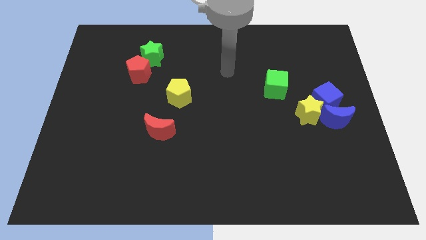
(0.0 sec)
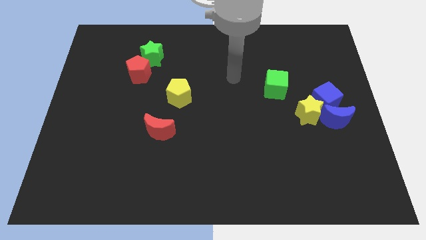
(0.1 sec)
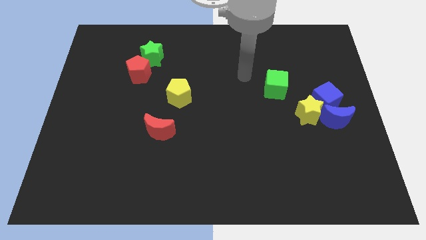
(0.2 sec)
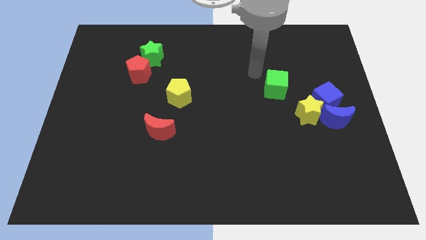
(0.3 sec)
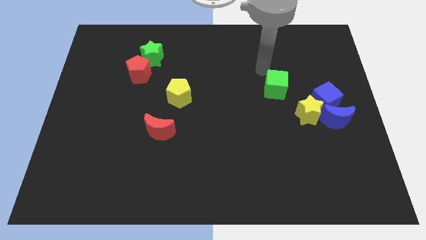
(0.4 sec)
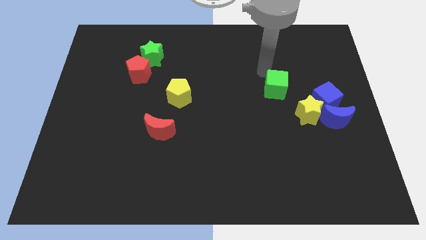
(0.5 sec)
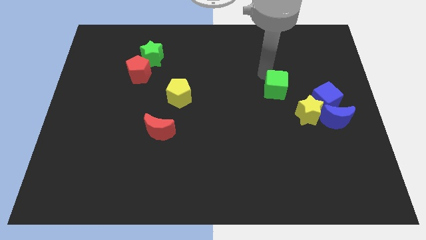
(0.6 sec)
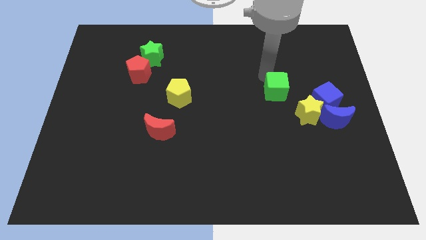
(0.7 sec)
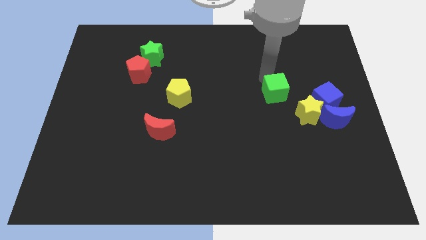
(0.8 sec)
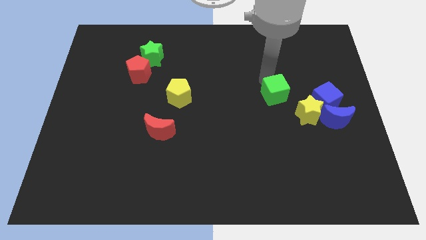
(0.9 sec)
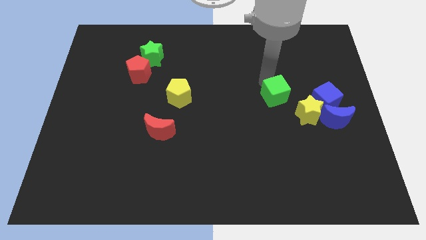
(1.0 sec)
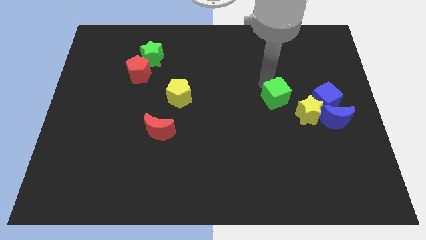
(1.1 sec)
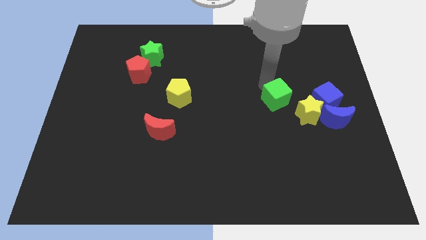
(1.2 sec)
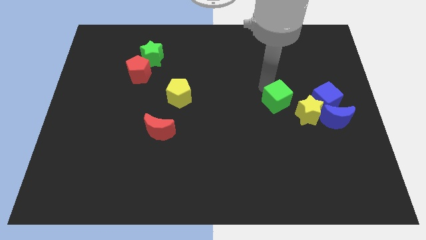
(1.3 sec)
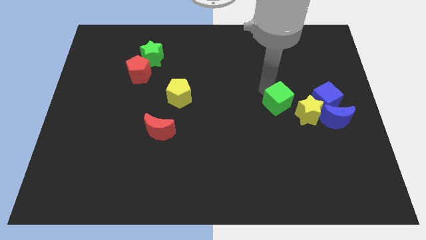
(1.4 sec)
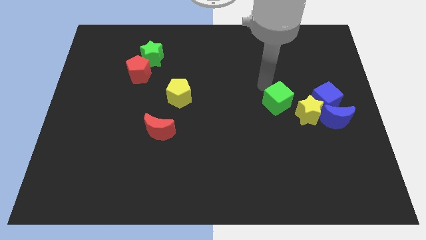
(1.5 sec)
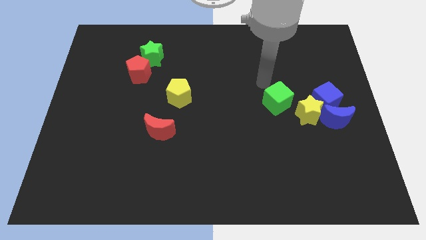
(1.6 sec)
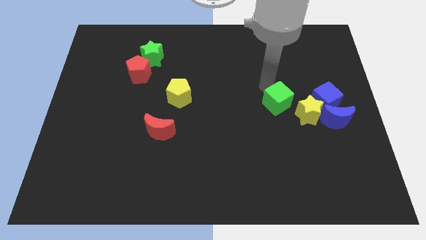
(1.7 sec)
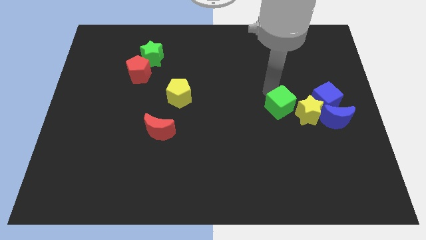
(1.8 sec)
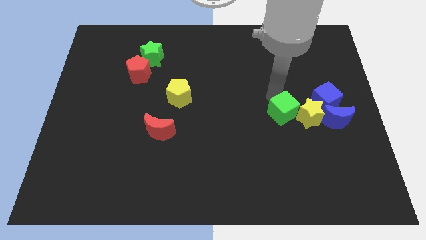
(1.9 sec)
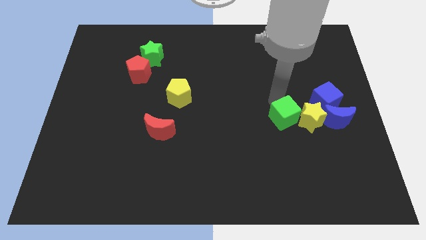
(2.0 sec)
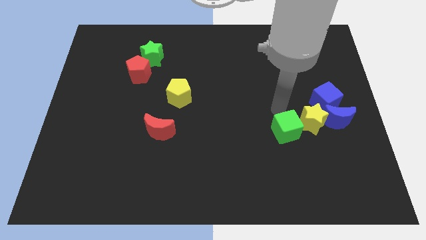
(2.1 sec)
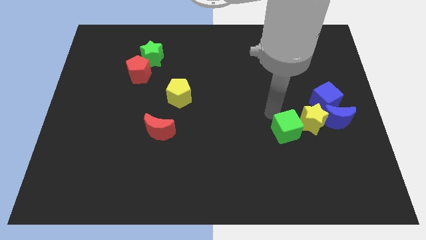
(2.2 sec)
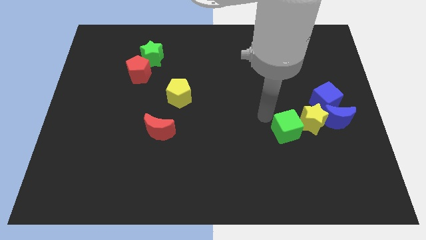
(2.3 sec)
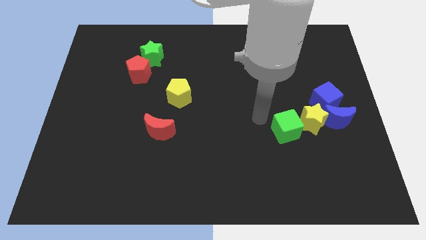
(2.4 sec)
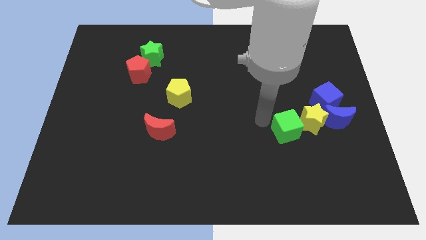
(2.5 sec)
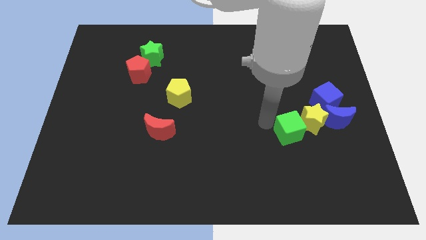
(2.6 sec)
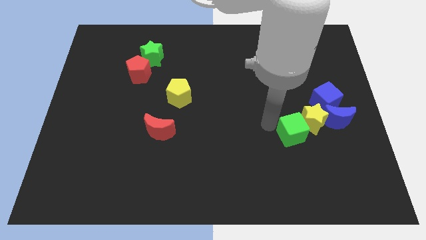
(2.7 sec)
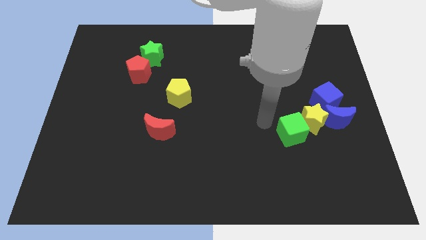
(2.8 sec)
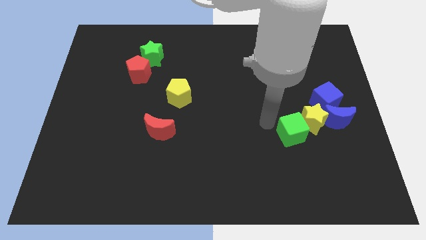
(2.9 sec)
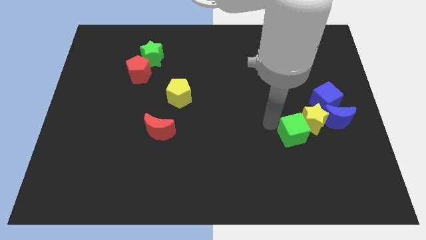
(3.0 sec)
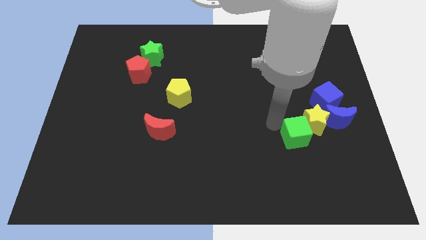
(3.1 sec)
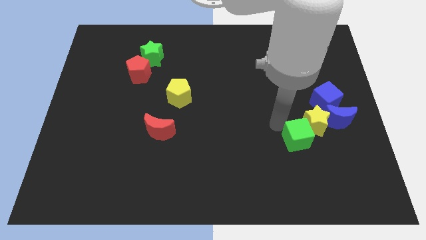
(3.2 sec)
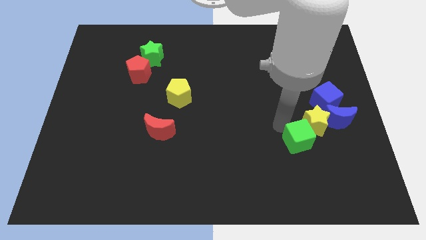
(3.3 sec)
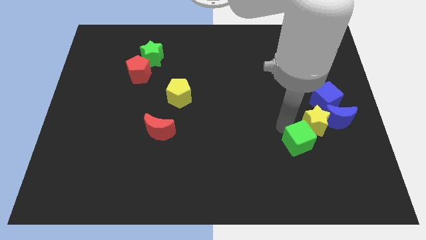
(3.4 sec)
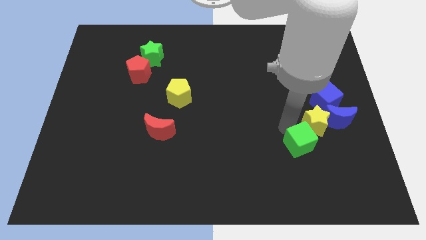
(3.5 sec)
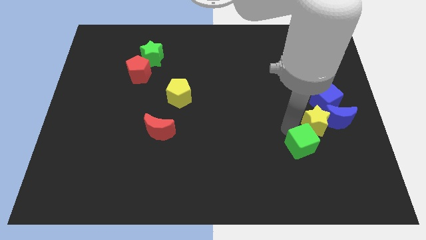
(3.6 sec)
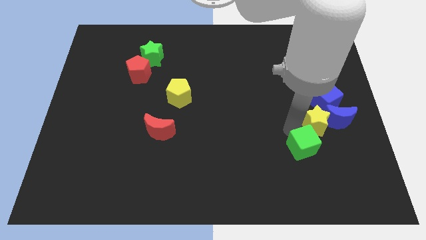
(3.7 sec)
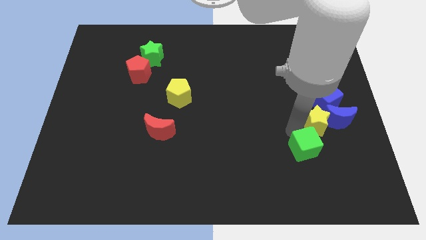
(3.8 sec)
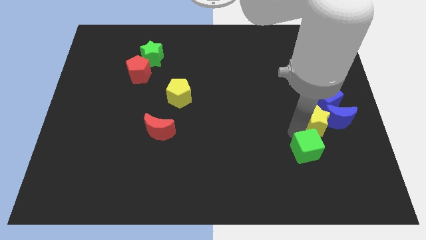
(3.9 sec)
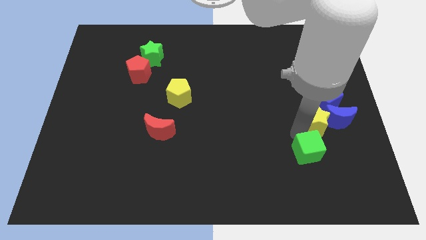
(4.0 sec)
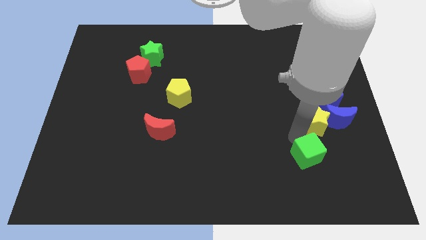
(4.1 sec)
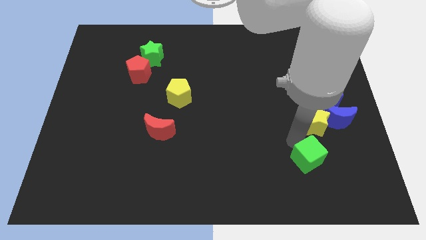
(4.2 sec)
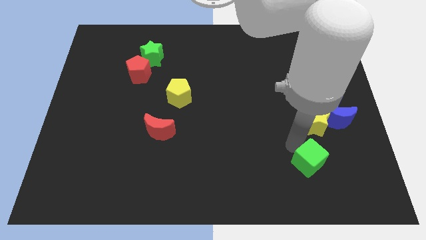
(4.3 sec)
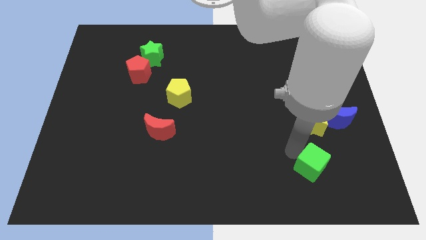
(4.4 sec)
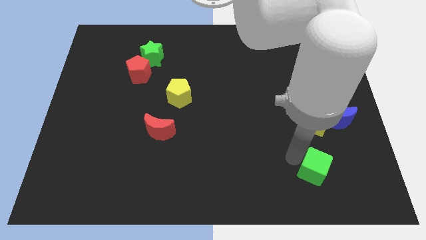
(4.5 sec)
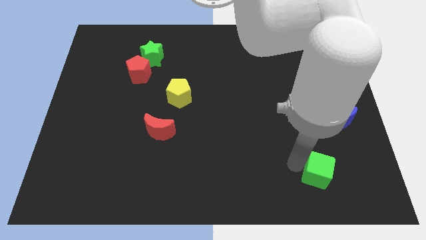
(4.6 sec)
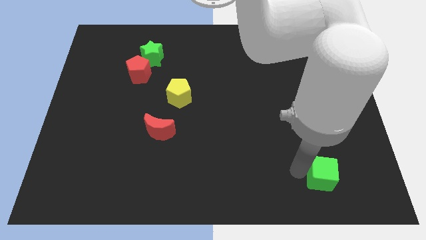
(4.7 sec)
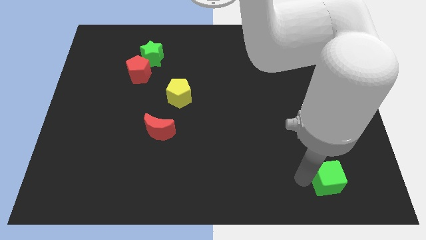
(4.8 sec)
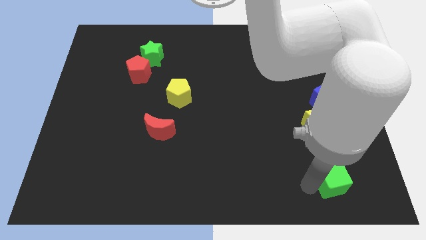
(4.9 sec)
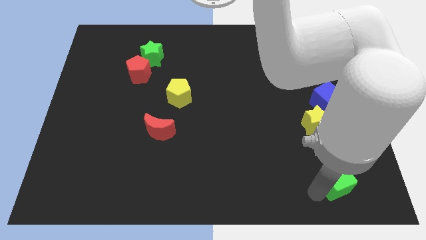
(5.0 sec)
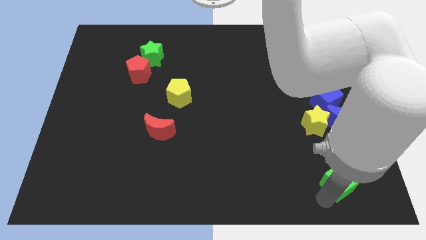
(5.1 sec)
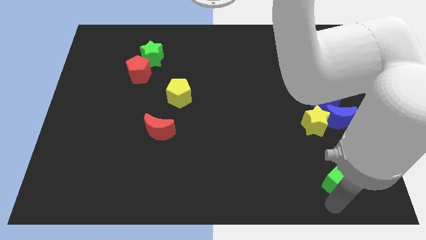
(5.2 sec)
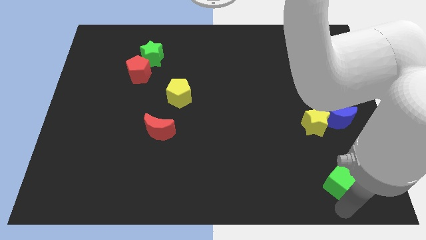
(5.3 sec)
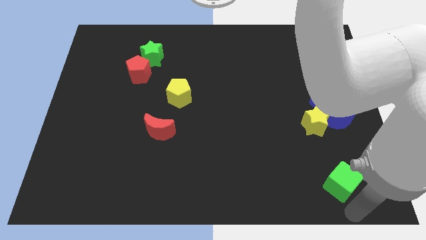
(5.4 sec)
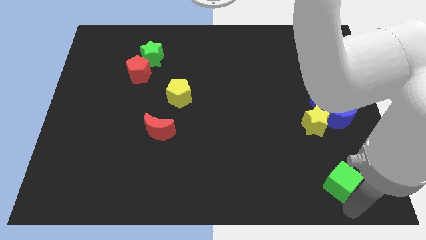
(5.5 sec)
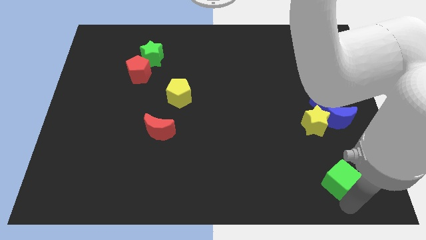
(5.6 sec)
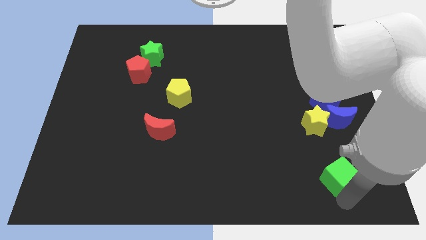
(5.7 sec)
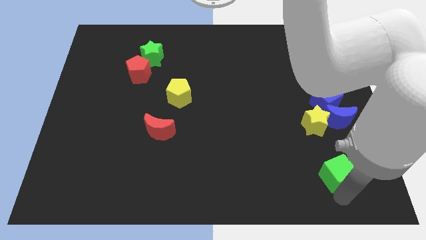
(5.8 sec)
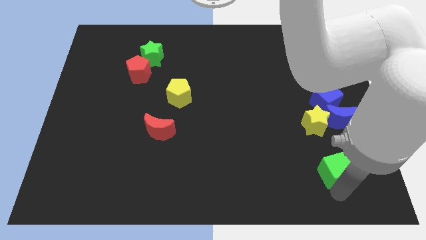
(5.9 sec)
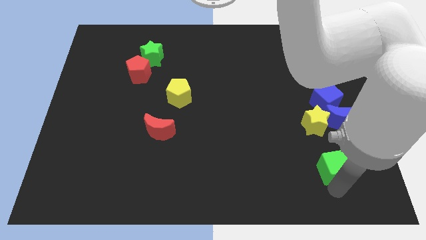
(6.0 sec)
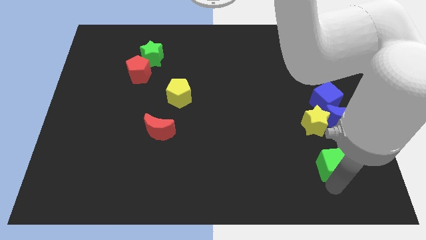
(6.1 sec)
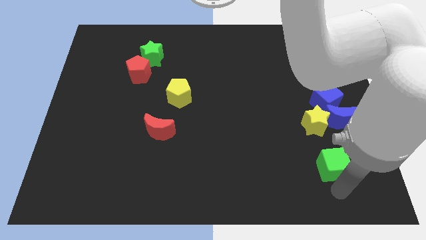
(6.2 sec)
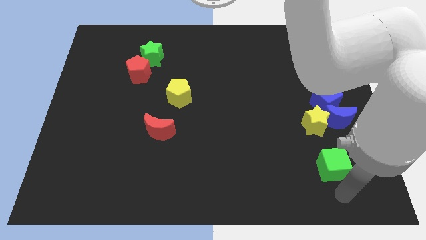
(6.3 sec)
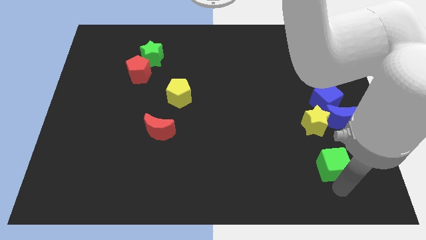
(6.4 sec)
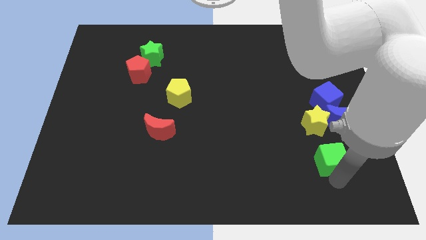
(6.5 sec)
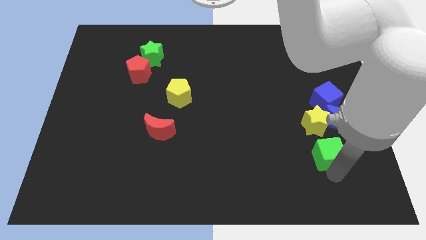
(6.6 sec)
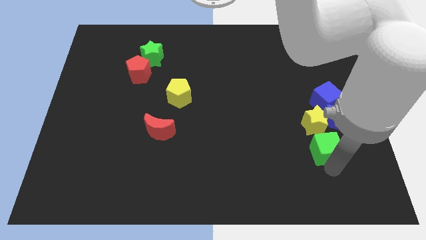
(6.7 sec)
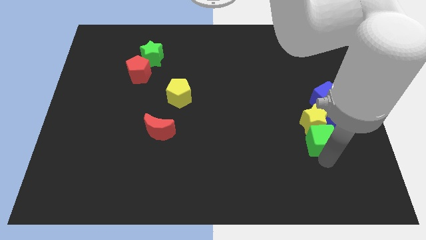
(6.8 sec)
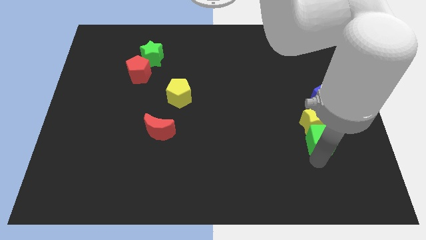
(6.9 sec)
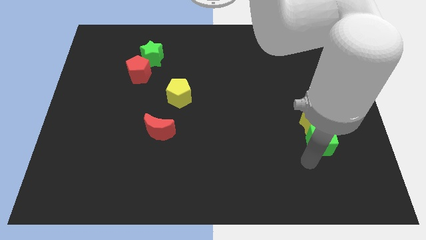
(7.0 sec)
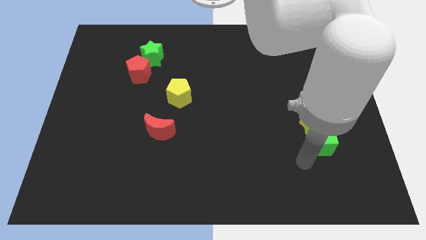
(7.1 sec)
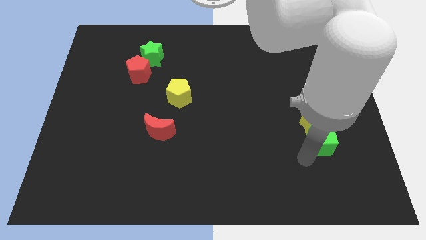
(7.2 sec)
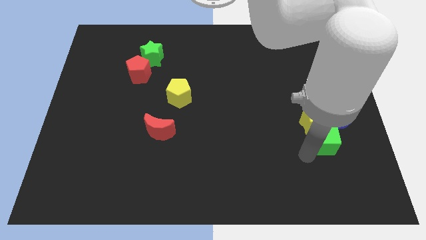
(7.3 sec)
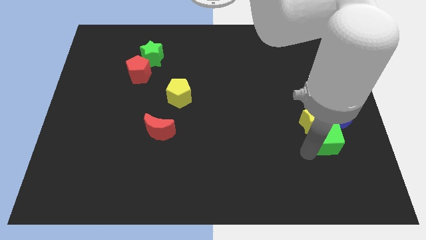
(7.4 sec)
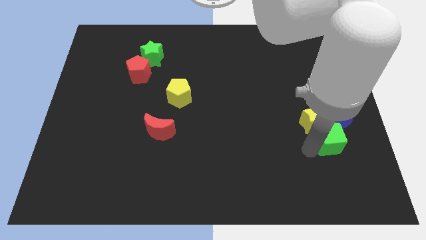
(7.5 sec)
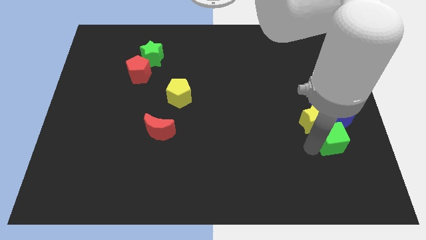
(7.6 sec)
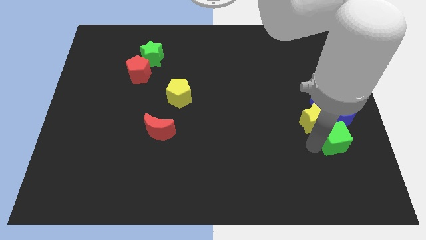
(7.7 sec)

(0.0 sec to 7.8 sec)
put the green cube towards the blue moon

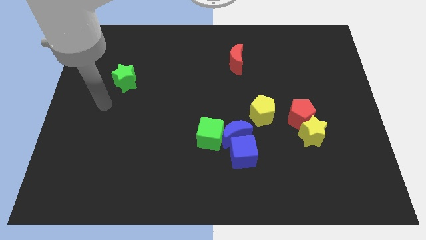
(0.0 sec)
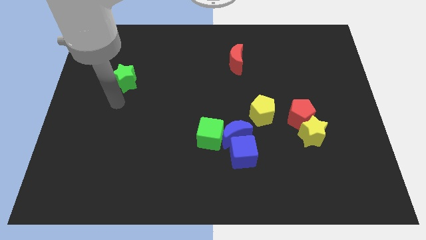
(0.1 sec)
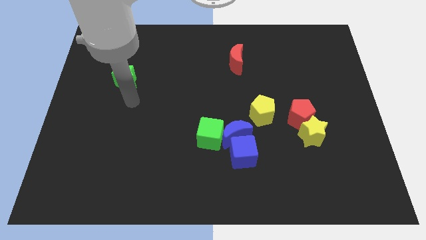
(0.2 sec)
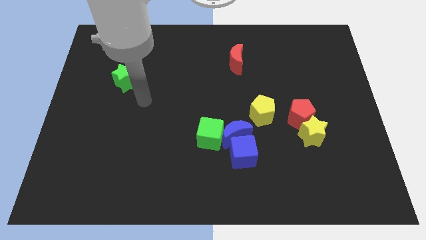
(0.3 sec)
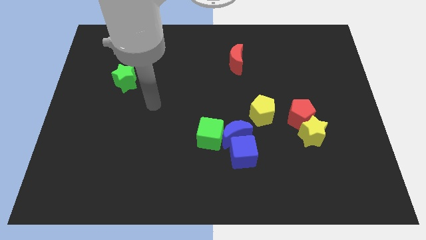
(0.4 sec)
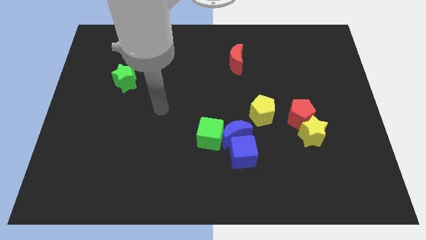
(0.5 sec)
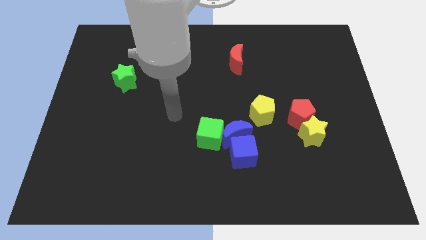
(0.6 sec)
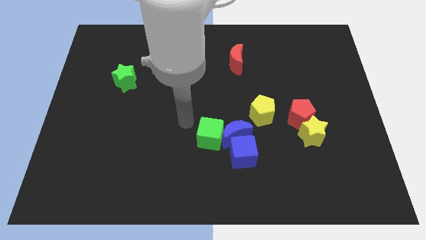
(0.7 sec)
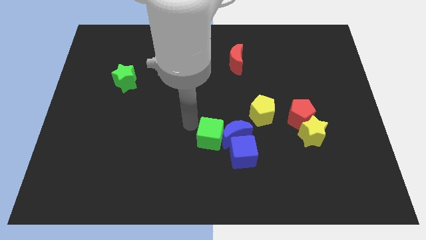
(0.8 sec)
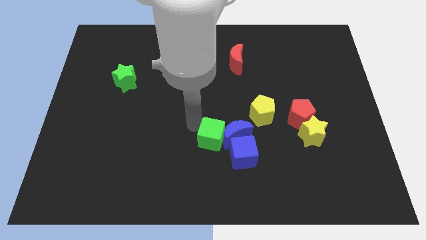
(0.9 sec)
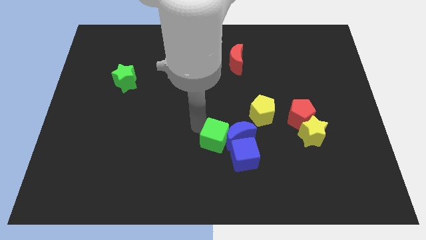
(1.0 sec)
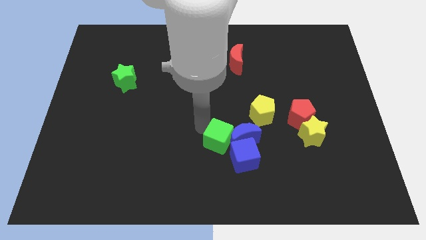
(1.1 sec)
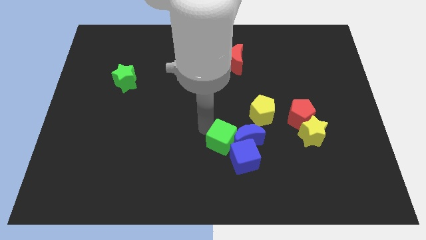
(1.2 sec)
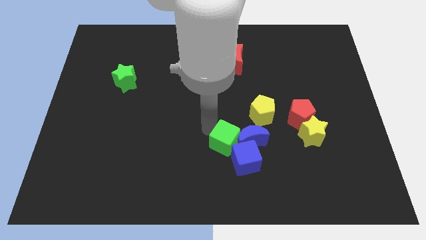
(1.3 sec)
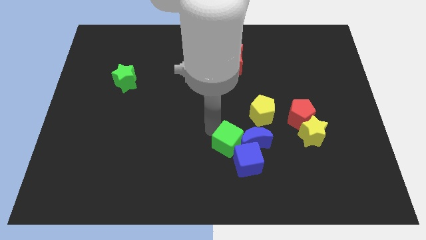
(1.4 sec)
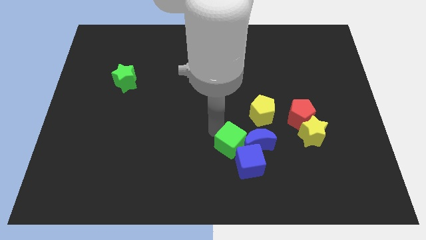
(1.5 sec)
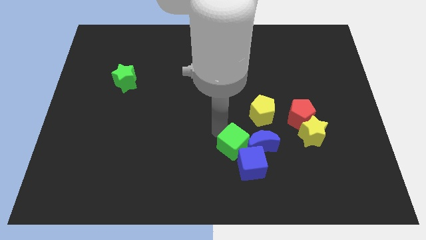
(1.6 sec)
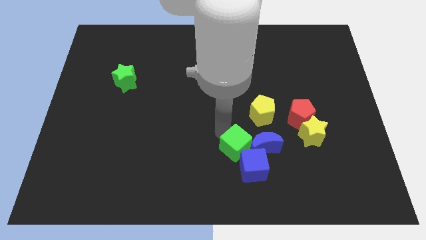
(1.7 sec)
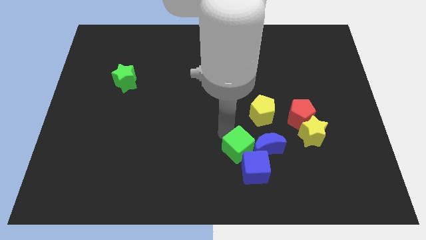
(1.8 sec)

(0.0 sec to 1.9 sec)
put the green cube to the blue cube
